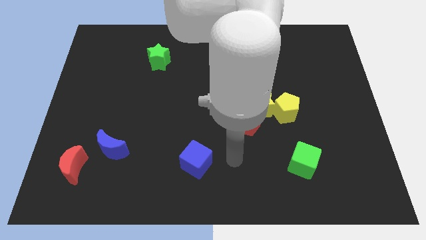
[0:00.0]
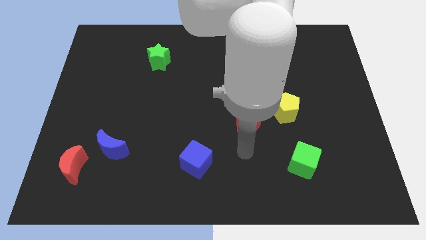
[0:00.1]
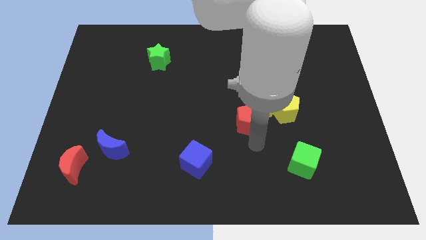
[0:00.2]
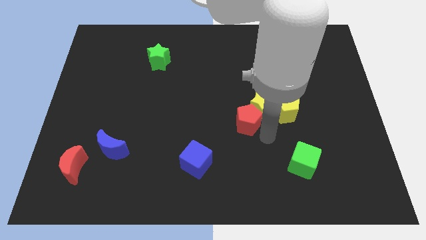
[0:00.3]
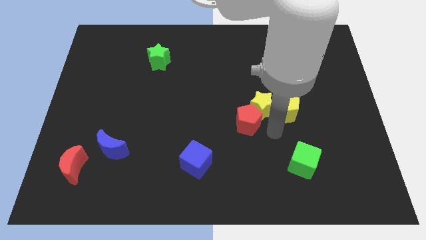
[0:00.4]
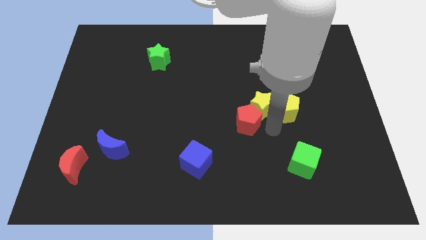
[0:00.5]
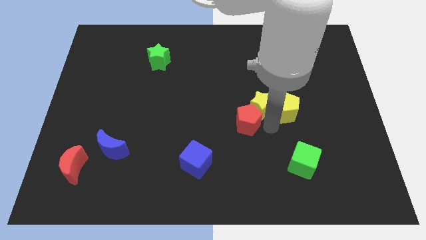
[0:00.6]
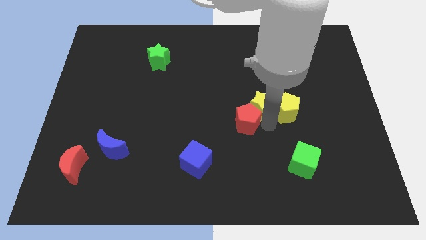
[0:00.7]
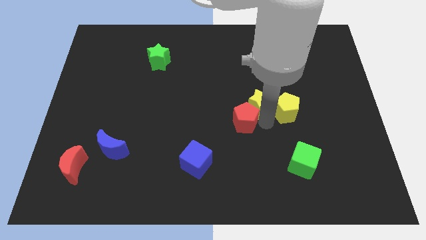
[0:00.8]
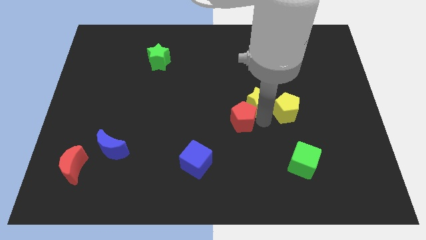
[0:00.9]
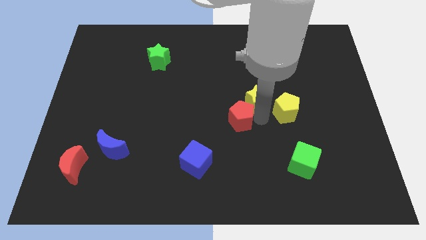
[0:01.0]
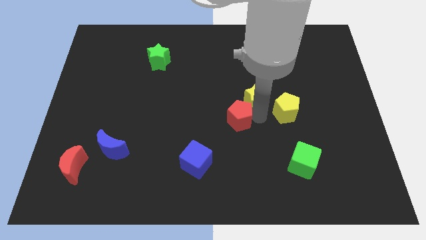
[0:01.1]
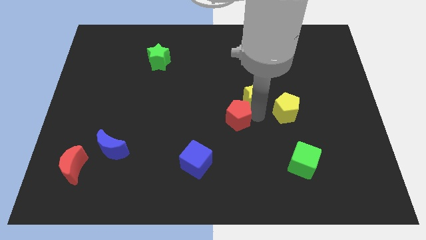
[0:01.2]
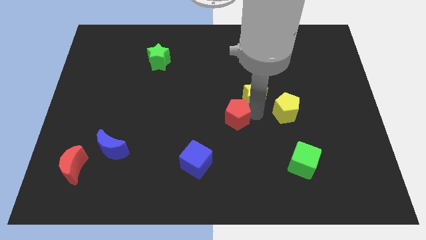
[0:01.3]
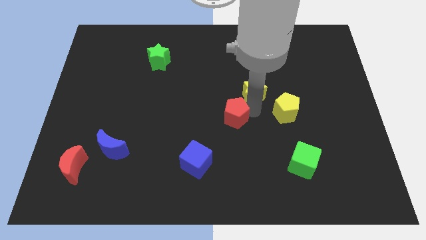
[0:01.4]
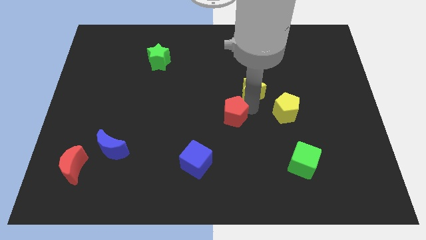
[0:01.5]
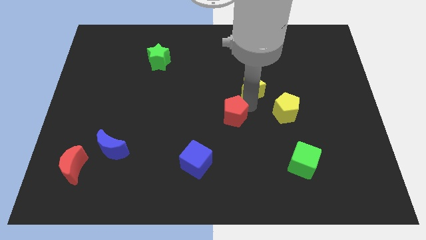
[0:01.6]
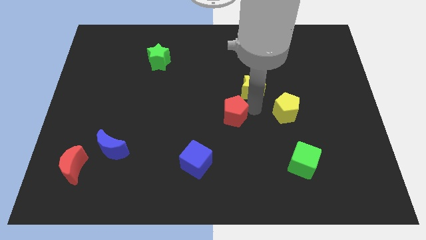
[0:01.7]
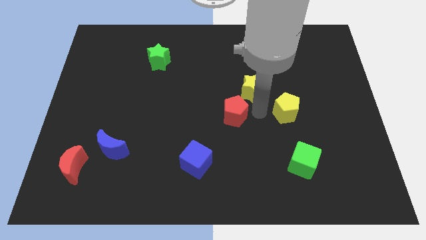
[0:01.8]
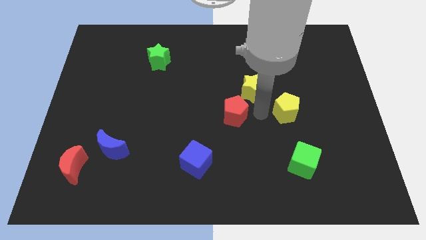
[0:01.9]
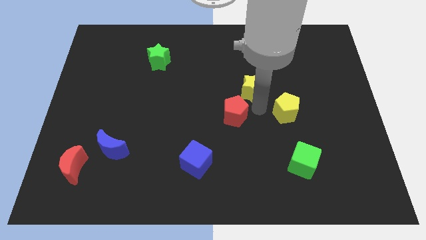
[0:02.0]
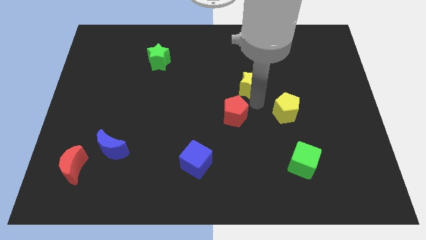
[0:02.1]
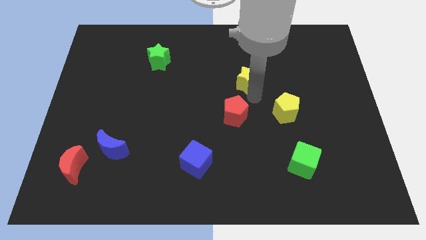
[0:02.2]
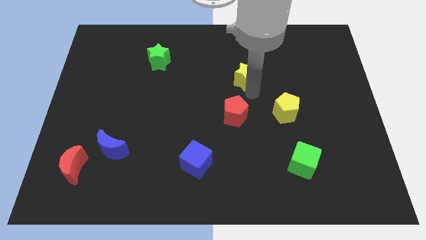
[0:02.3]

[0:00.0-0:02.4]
separate the yellow star from the yellow pentagon and red pentagon

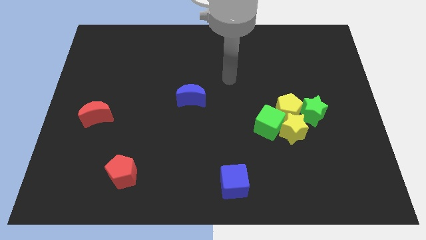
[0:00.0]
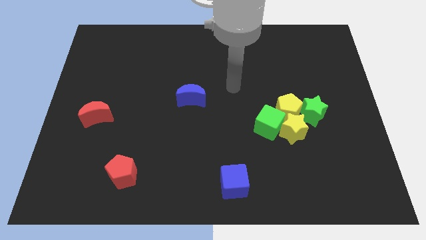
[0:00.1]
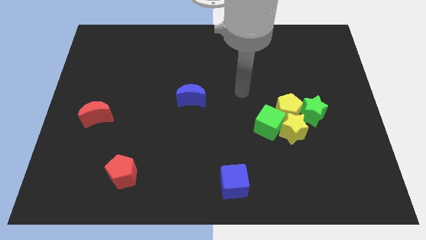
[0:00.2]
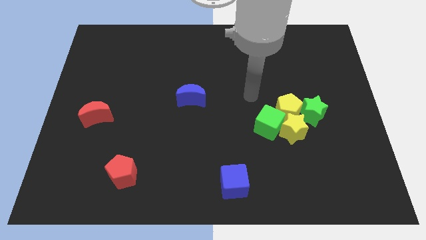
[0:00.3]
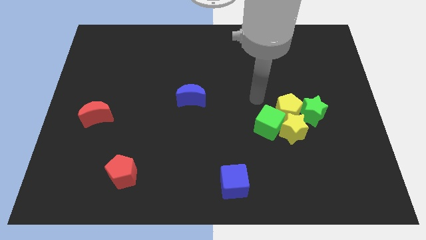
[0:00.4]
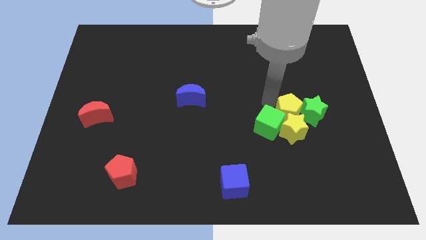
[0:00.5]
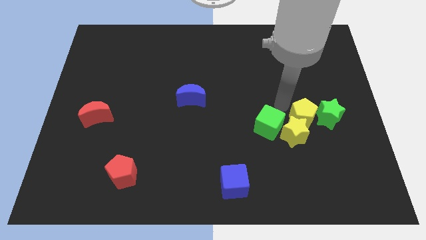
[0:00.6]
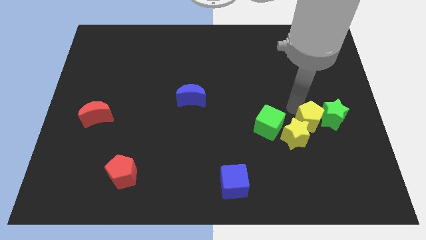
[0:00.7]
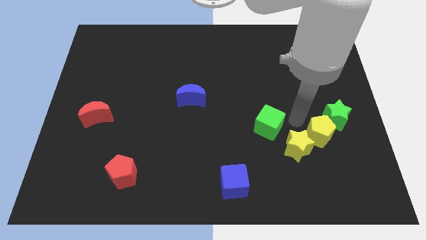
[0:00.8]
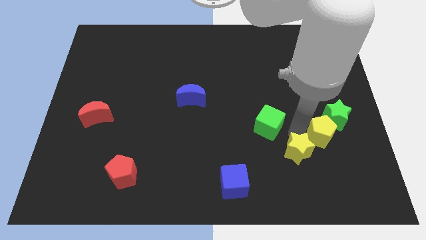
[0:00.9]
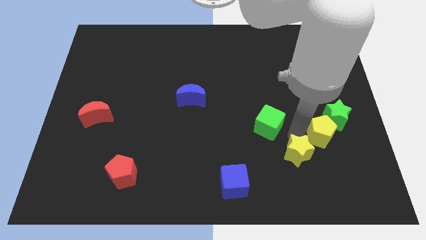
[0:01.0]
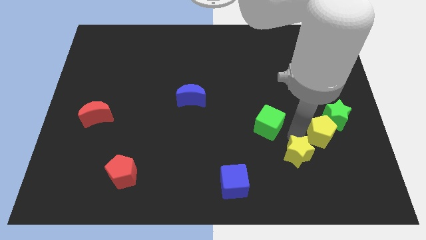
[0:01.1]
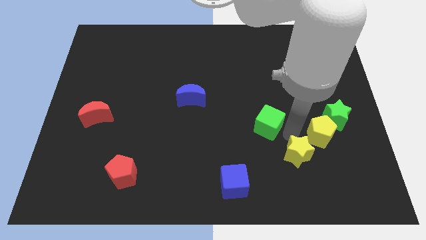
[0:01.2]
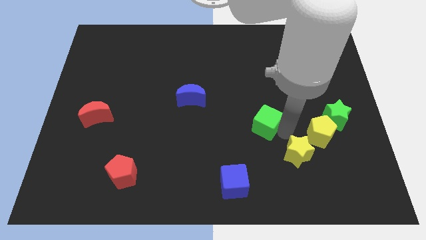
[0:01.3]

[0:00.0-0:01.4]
pull the green cube apart from the yellow star and yellow pentagon

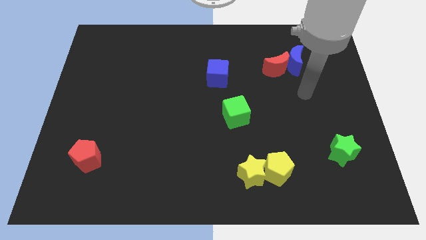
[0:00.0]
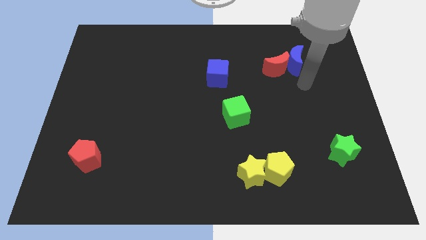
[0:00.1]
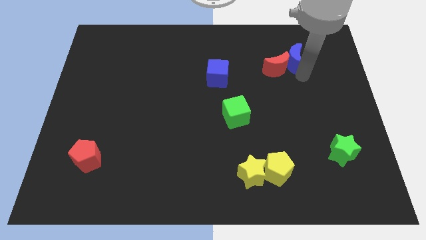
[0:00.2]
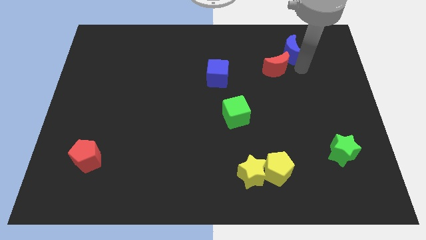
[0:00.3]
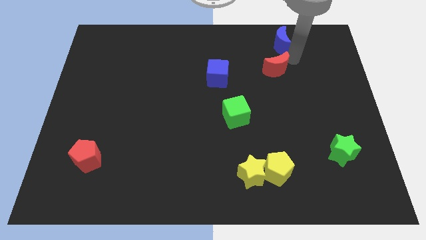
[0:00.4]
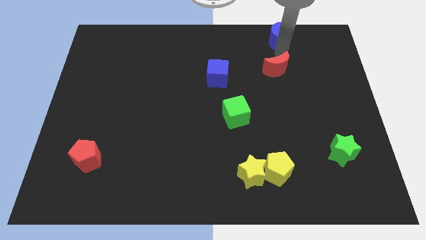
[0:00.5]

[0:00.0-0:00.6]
separate the red moon from the blue moon

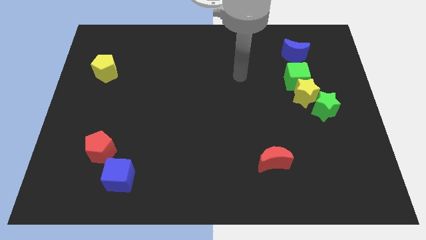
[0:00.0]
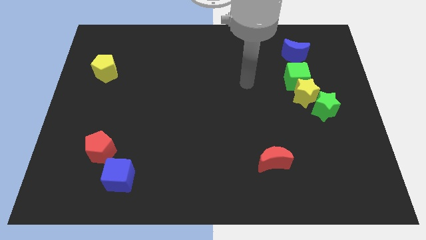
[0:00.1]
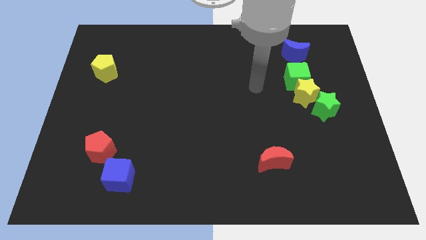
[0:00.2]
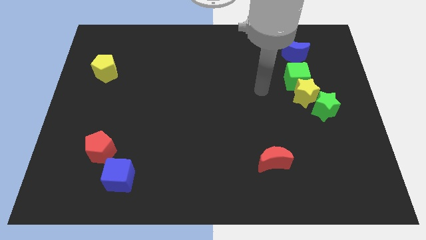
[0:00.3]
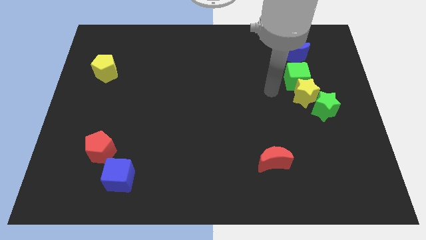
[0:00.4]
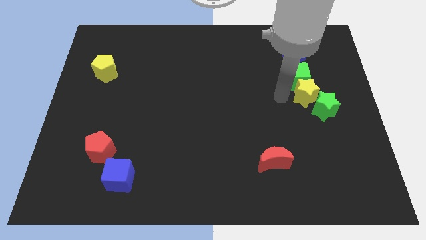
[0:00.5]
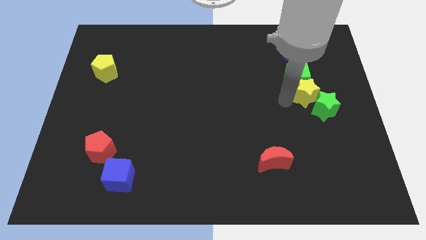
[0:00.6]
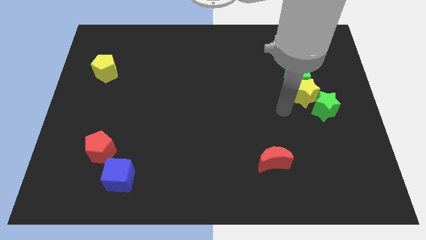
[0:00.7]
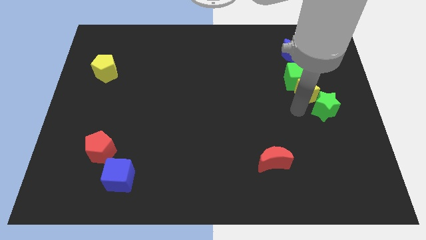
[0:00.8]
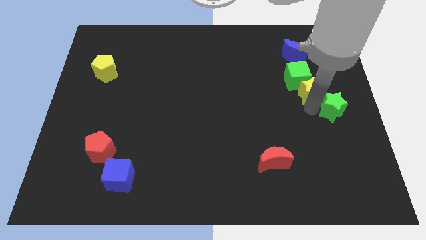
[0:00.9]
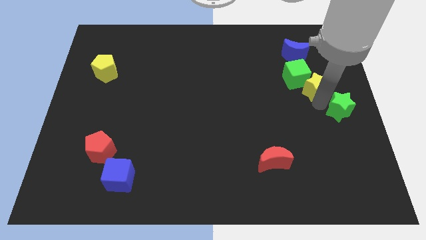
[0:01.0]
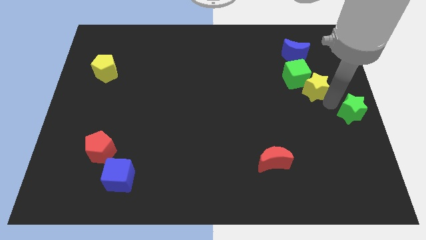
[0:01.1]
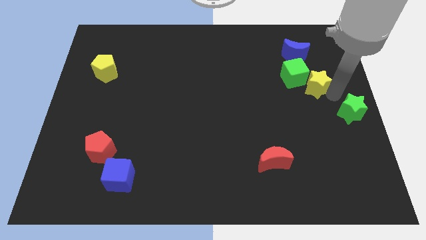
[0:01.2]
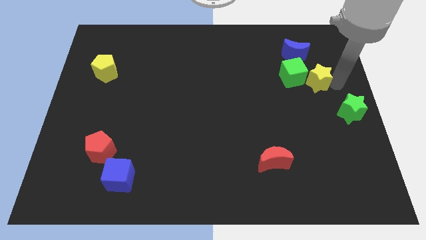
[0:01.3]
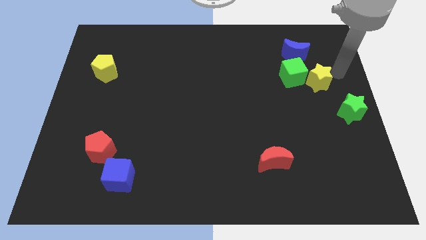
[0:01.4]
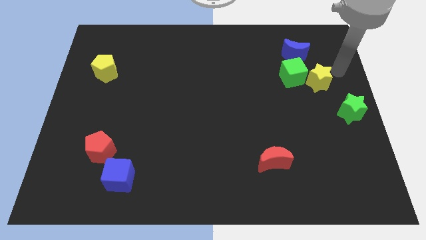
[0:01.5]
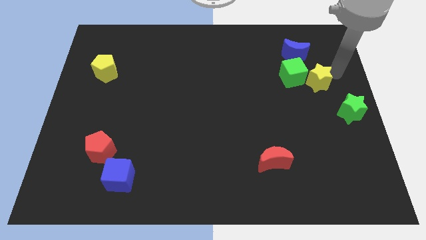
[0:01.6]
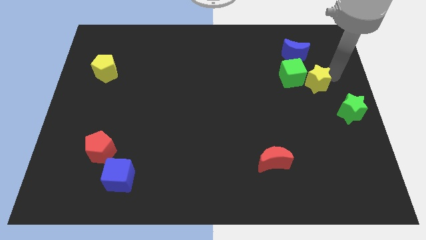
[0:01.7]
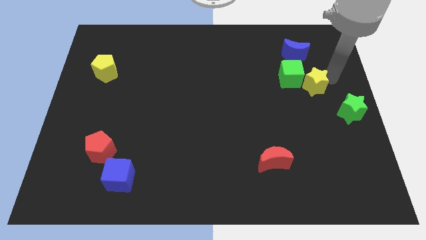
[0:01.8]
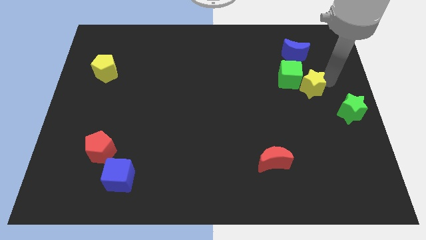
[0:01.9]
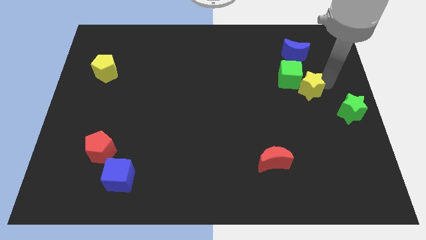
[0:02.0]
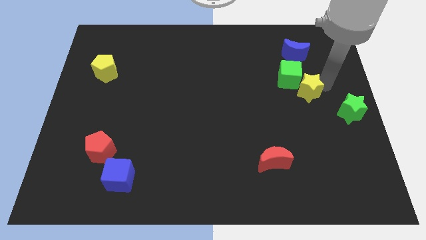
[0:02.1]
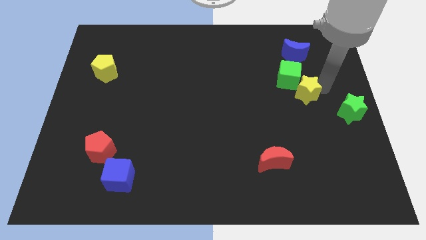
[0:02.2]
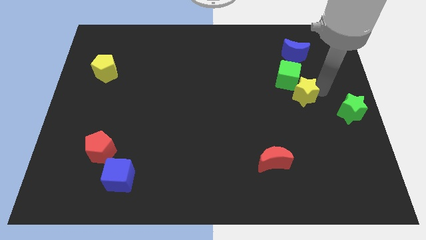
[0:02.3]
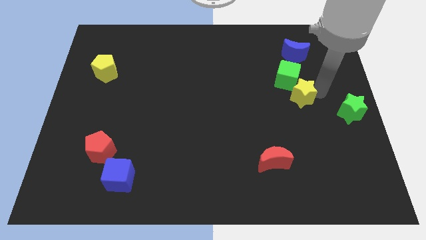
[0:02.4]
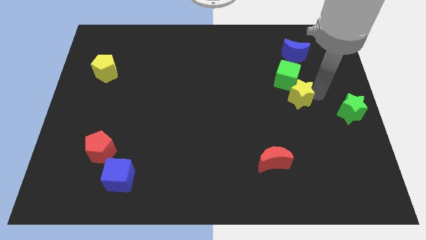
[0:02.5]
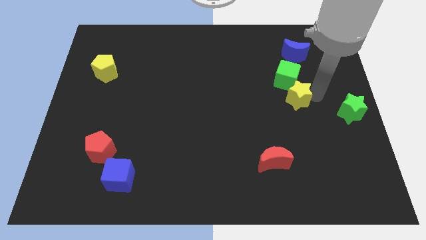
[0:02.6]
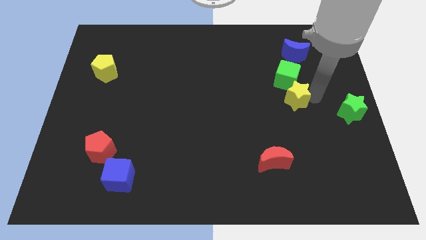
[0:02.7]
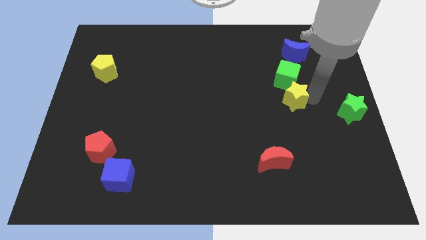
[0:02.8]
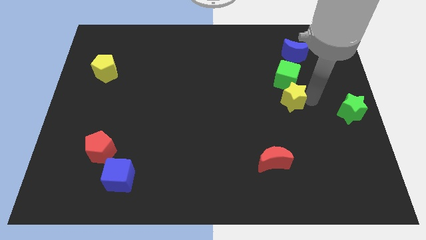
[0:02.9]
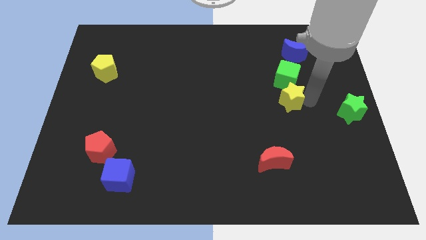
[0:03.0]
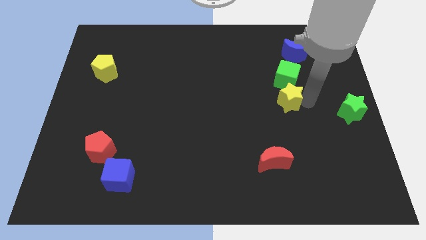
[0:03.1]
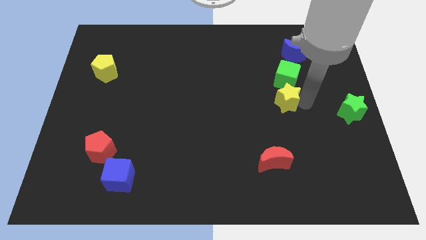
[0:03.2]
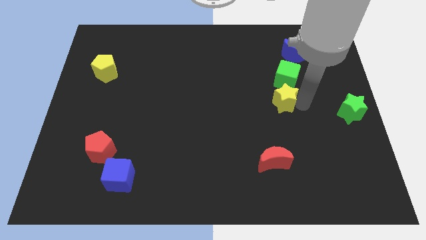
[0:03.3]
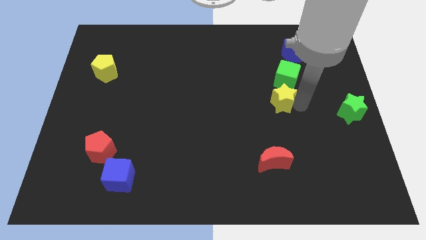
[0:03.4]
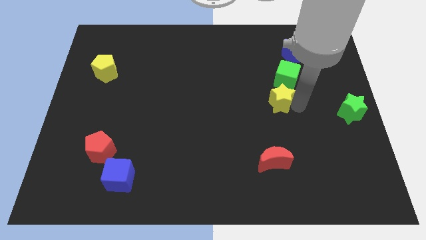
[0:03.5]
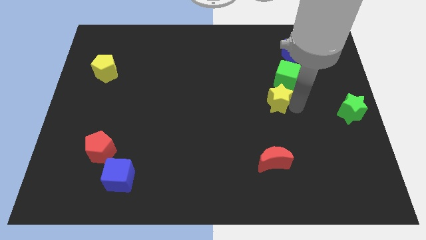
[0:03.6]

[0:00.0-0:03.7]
separate the yellow star from the green cube and green star

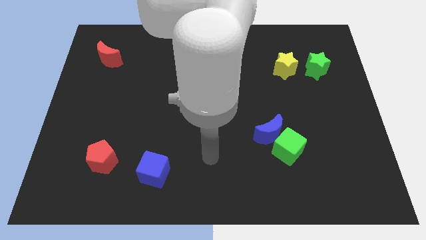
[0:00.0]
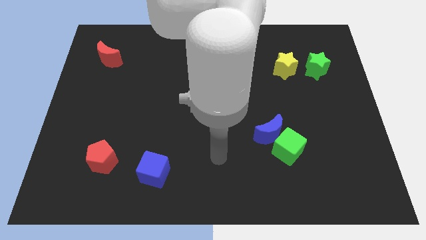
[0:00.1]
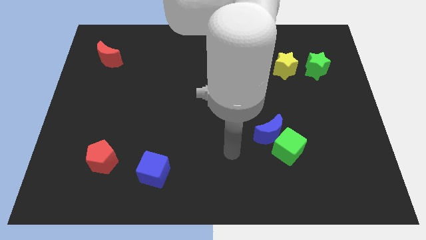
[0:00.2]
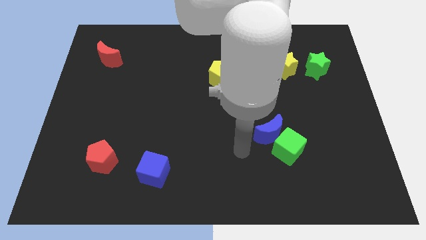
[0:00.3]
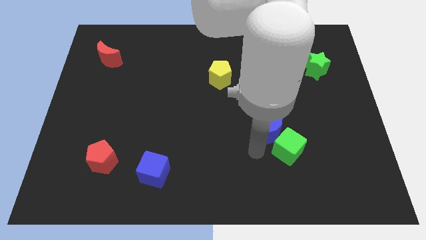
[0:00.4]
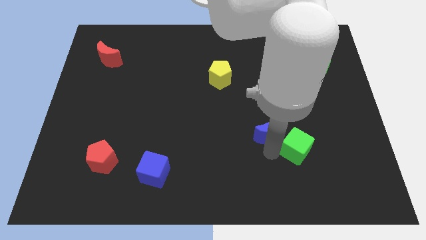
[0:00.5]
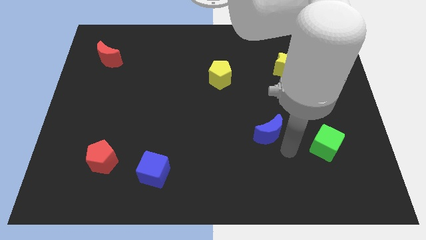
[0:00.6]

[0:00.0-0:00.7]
separate the blue moon from the green cube

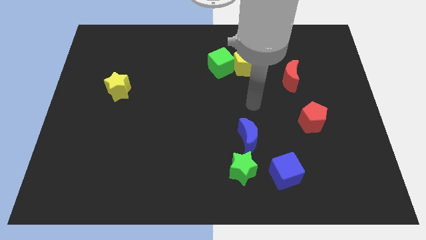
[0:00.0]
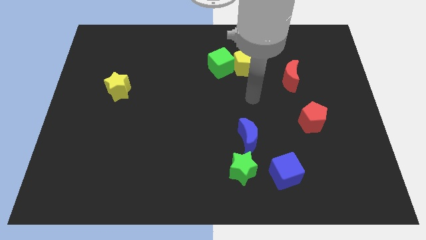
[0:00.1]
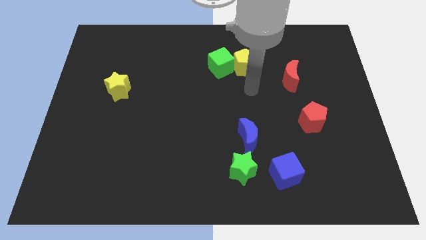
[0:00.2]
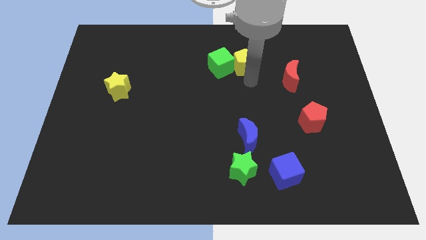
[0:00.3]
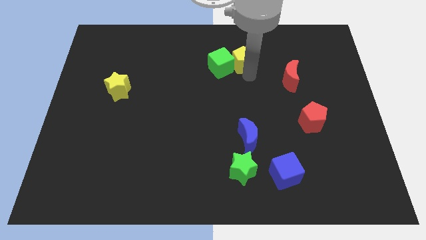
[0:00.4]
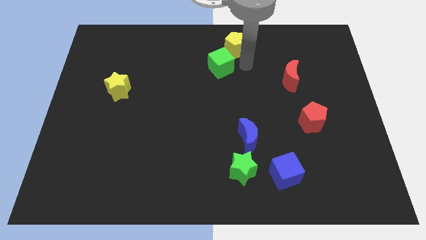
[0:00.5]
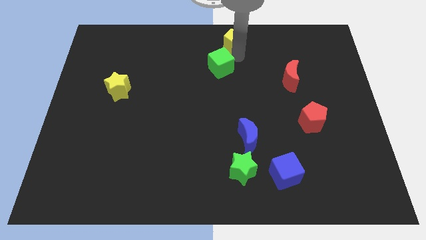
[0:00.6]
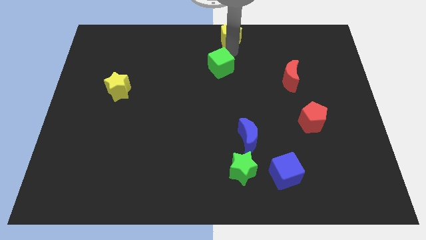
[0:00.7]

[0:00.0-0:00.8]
move the green cube away from the yellow pentagon
